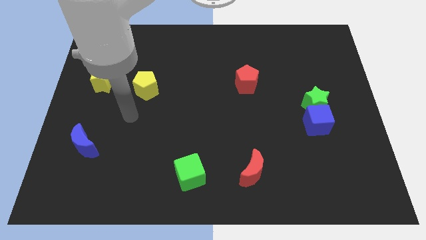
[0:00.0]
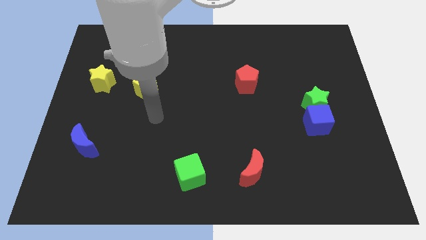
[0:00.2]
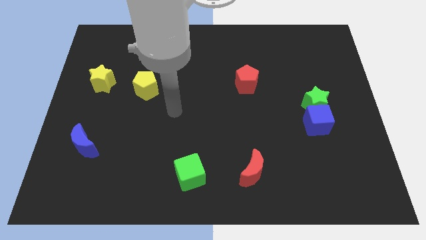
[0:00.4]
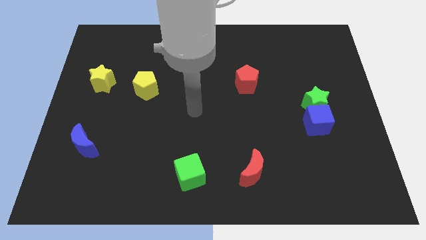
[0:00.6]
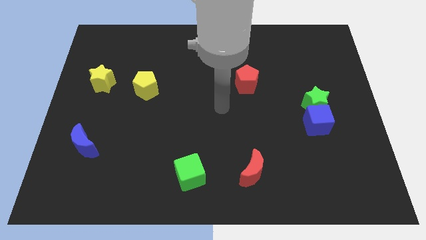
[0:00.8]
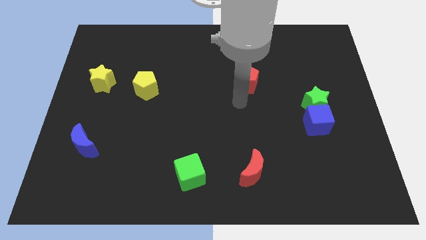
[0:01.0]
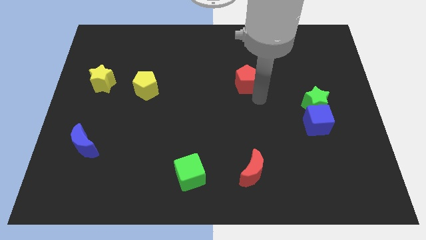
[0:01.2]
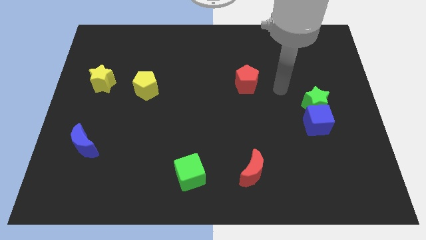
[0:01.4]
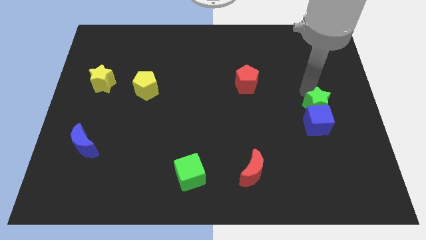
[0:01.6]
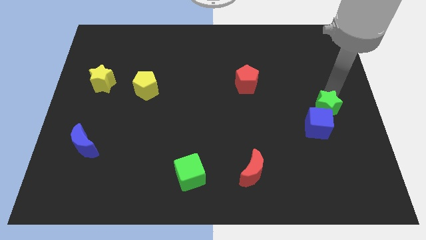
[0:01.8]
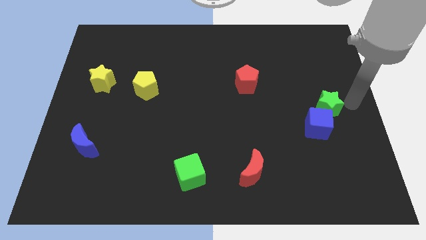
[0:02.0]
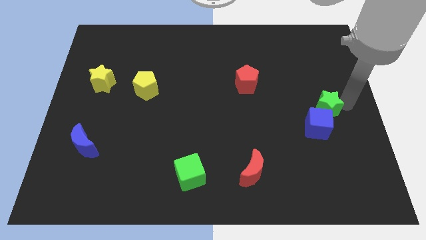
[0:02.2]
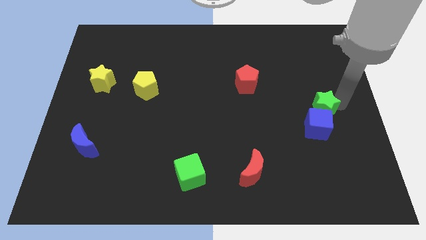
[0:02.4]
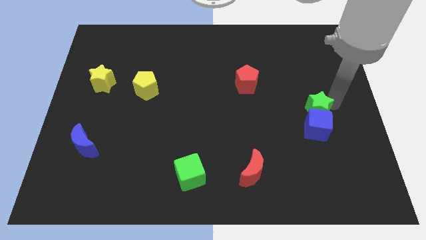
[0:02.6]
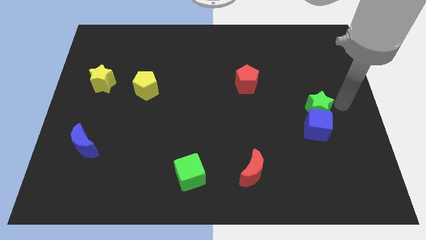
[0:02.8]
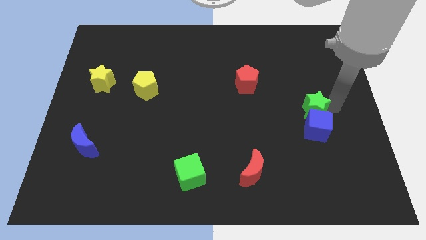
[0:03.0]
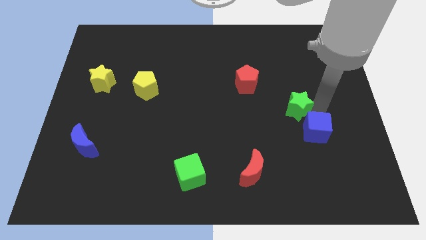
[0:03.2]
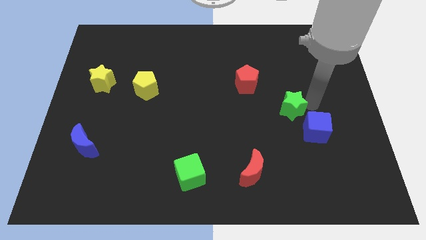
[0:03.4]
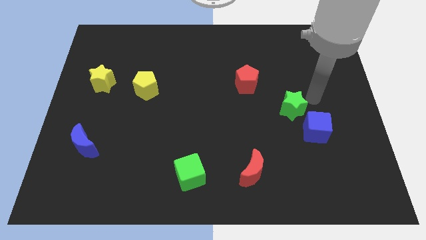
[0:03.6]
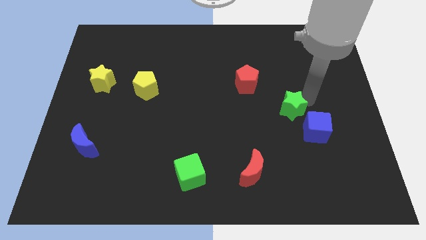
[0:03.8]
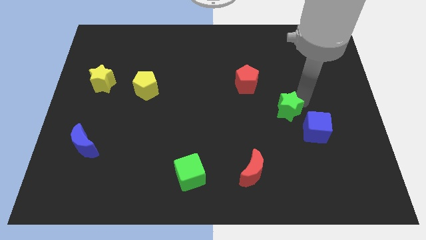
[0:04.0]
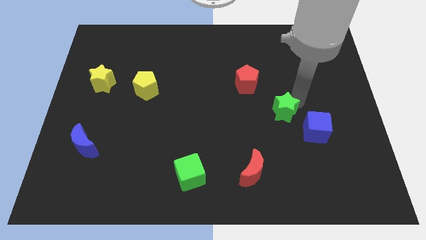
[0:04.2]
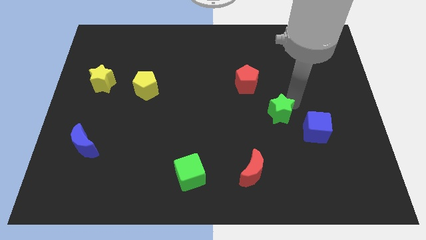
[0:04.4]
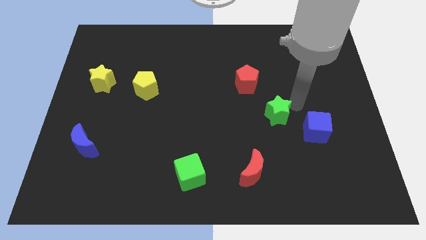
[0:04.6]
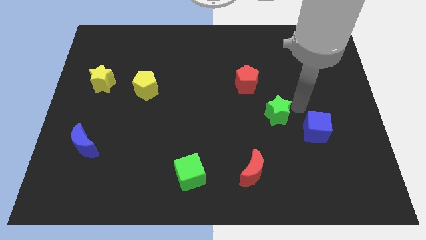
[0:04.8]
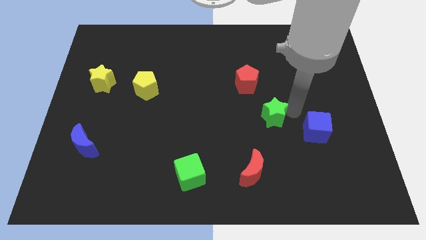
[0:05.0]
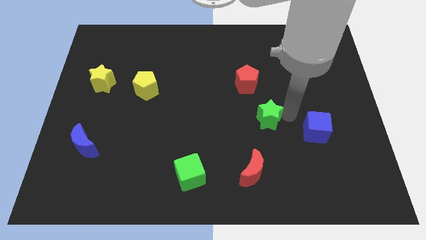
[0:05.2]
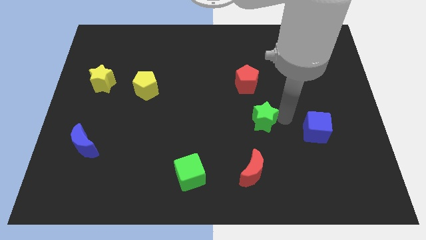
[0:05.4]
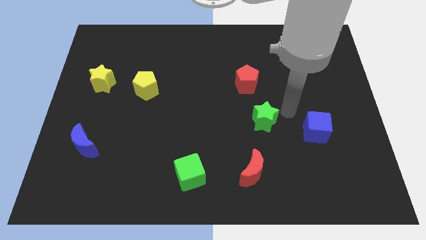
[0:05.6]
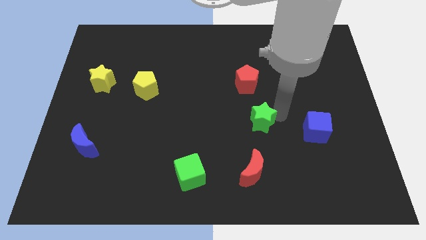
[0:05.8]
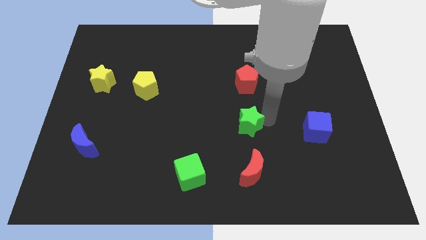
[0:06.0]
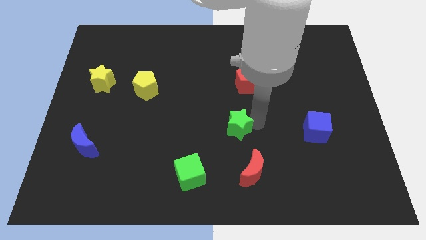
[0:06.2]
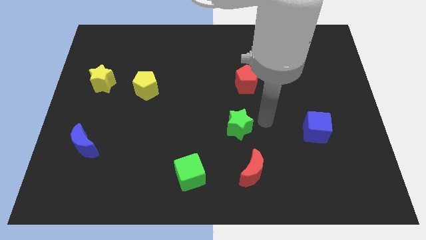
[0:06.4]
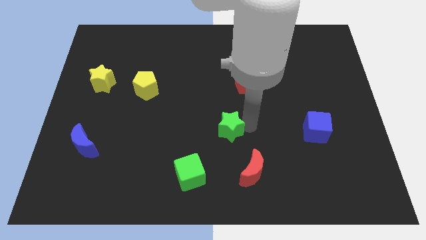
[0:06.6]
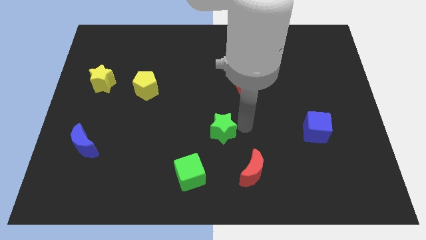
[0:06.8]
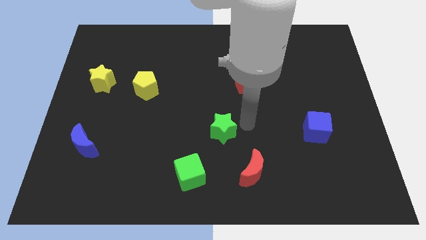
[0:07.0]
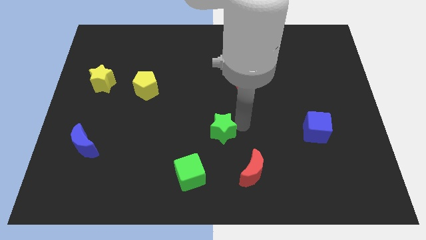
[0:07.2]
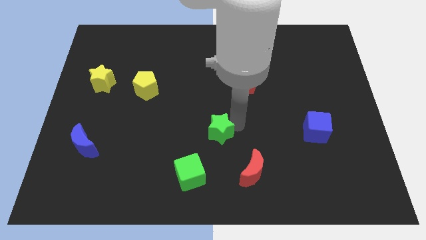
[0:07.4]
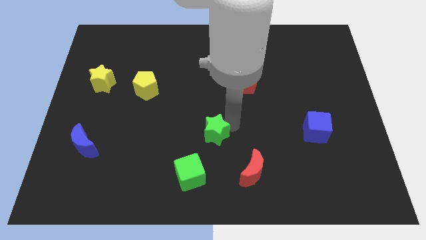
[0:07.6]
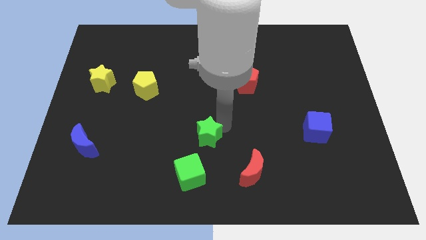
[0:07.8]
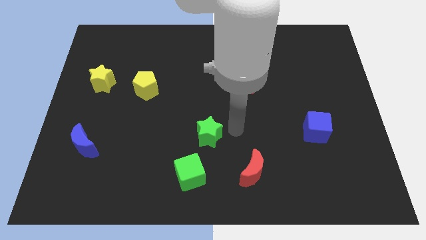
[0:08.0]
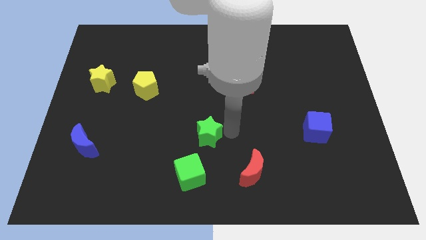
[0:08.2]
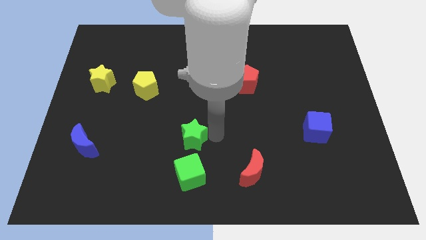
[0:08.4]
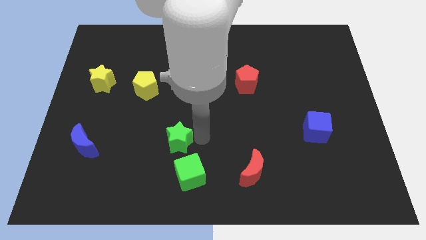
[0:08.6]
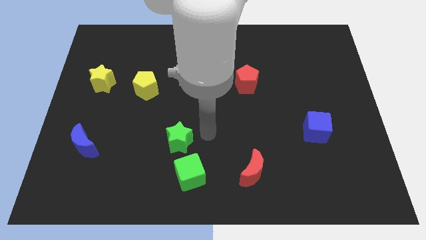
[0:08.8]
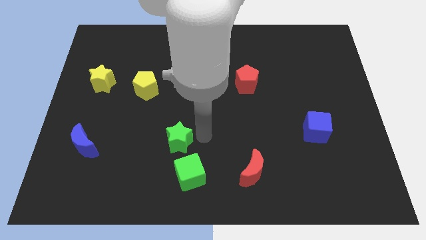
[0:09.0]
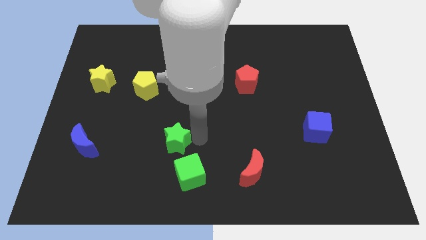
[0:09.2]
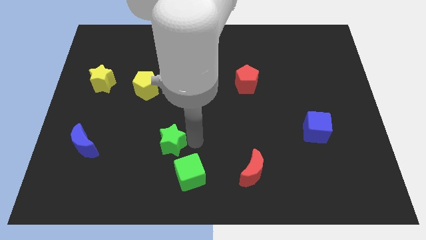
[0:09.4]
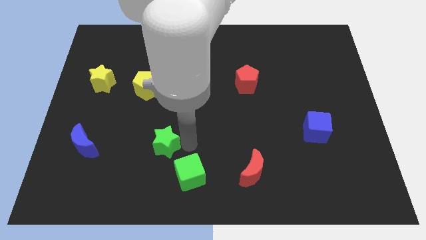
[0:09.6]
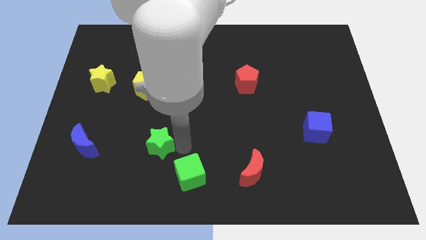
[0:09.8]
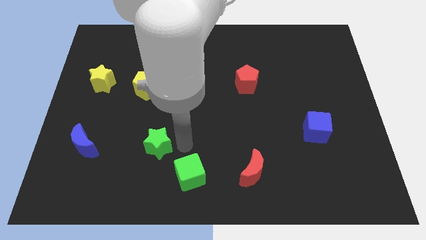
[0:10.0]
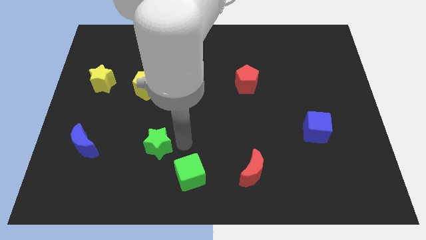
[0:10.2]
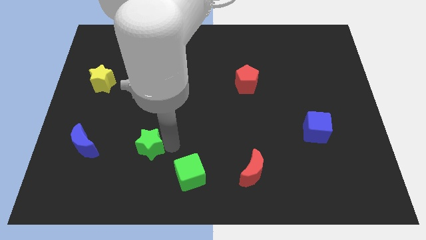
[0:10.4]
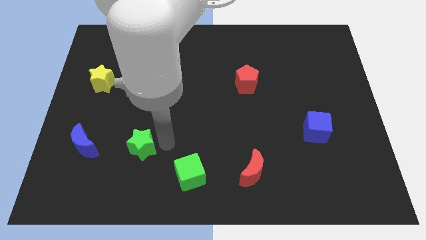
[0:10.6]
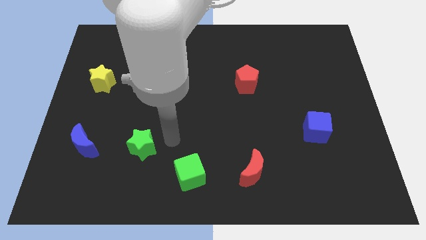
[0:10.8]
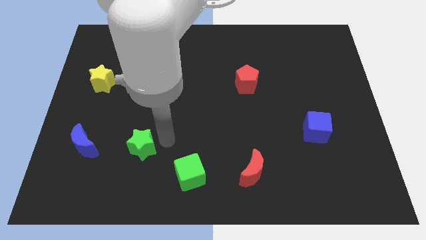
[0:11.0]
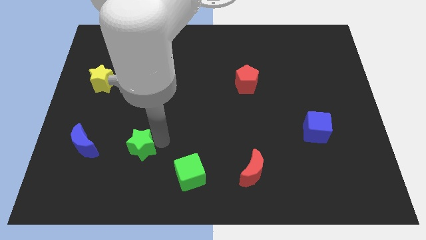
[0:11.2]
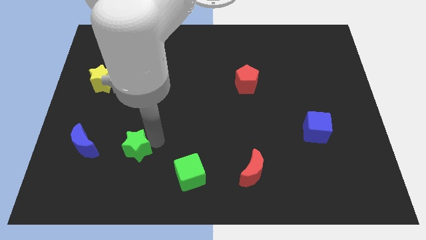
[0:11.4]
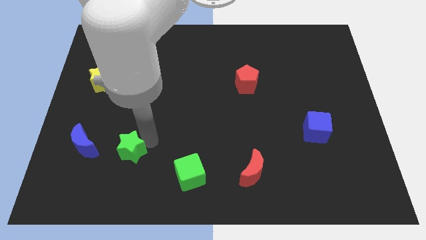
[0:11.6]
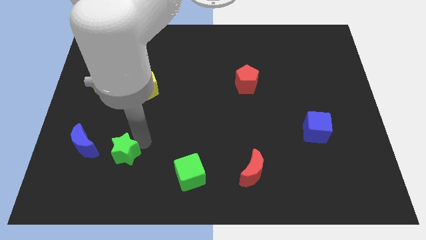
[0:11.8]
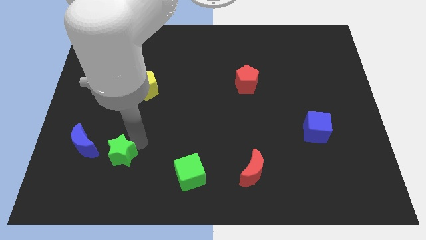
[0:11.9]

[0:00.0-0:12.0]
slide the green star to the bottom right of the blue moon

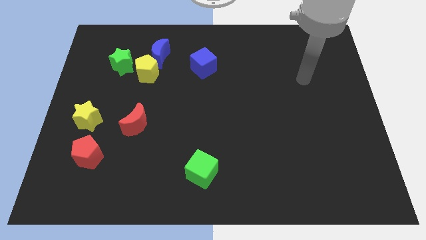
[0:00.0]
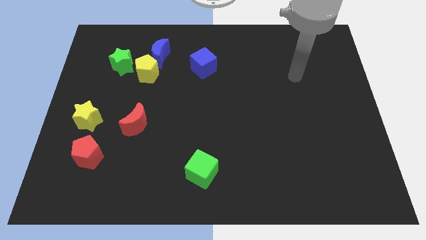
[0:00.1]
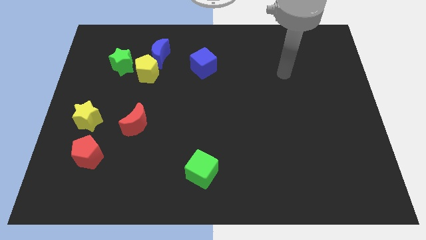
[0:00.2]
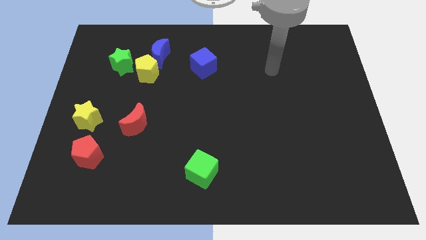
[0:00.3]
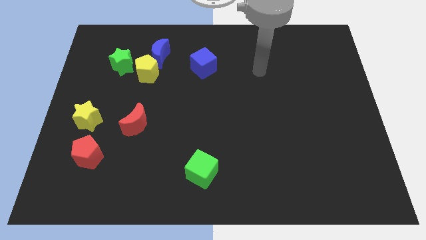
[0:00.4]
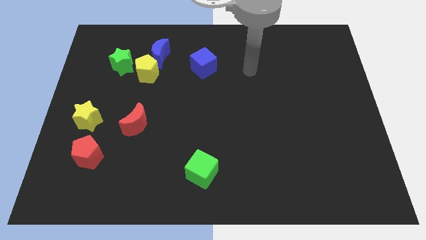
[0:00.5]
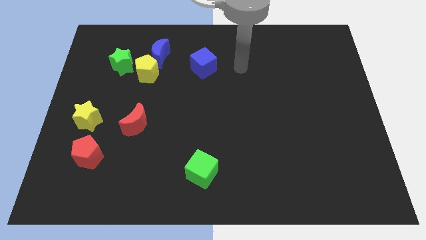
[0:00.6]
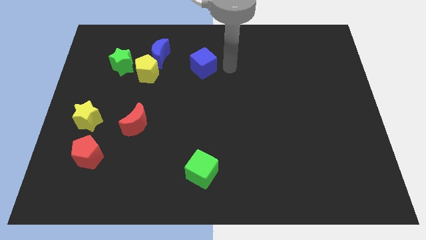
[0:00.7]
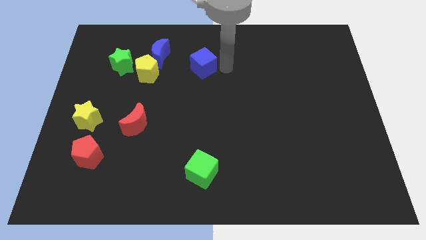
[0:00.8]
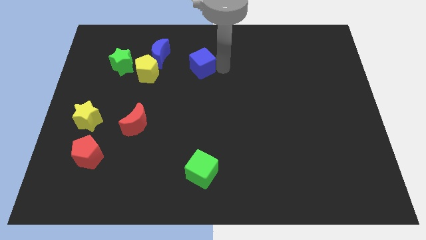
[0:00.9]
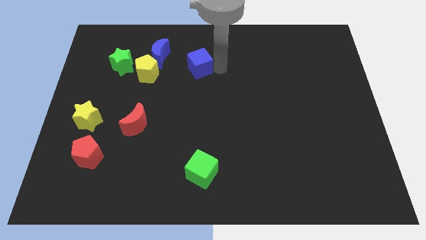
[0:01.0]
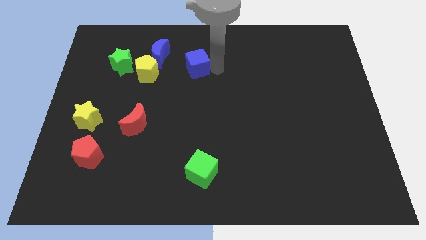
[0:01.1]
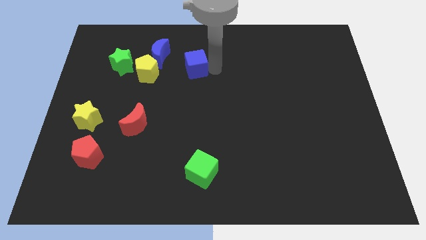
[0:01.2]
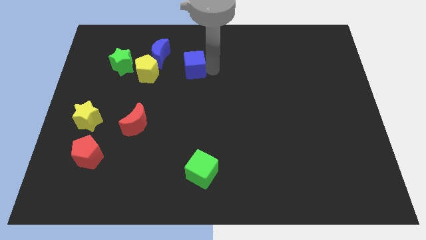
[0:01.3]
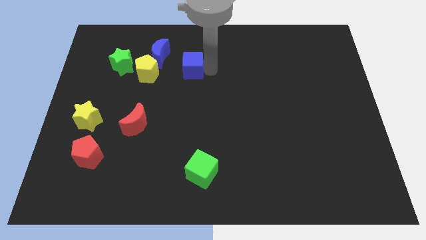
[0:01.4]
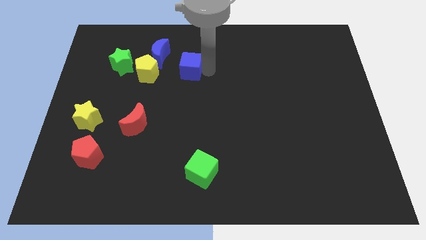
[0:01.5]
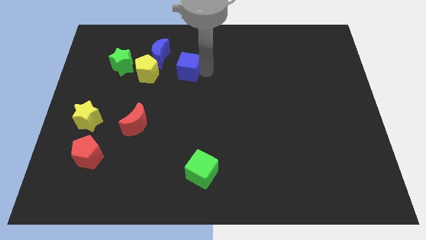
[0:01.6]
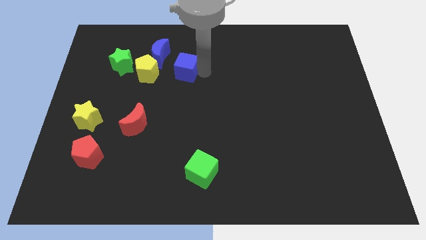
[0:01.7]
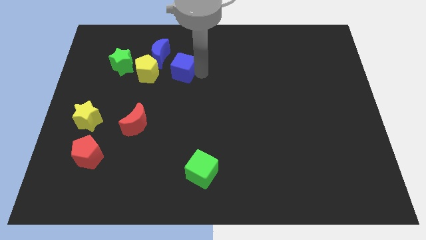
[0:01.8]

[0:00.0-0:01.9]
push the blue cube to the right of the green star
